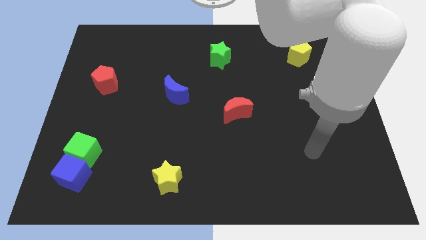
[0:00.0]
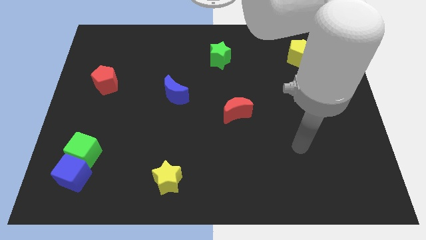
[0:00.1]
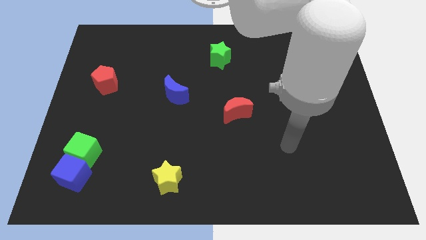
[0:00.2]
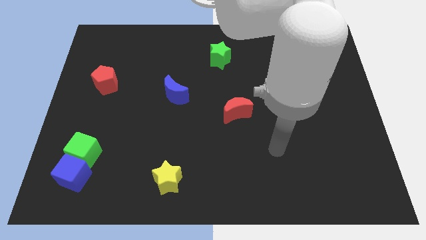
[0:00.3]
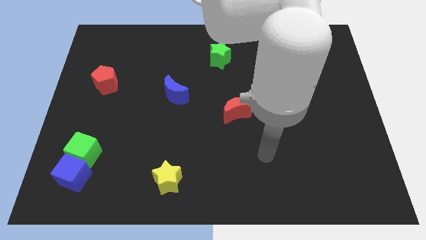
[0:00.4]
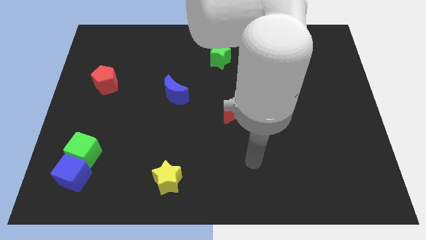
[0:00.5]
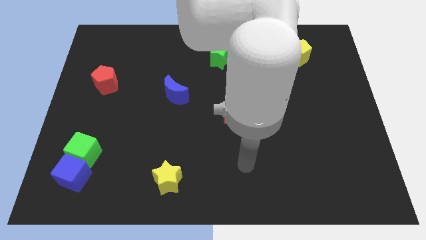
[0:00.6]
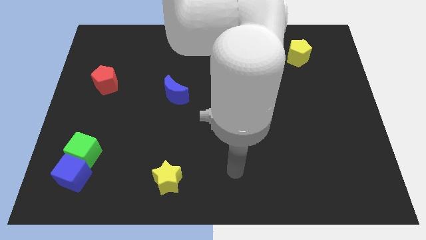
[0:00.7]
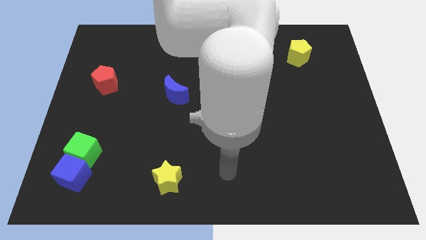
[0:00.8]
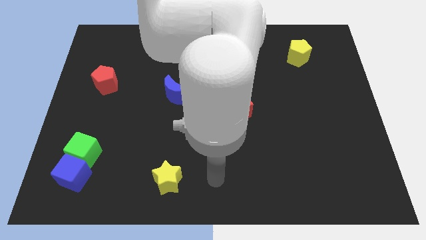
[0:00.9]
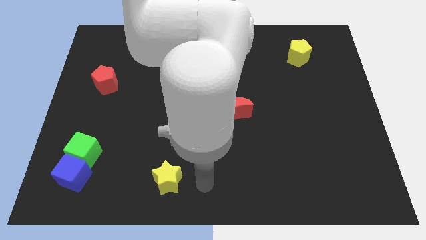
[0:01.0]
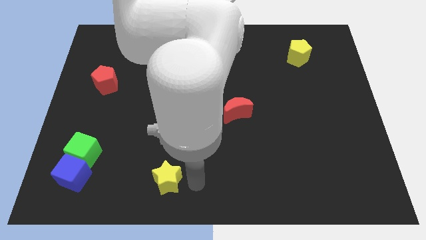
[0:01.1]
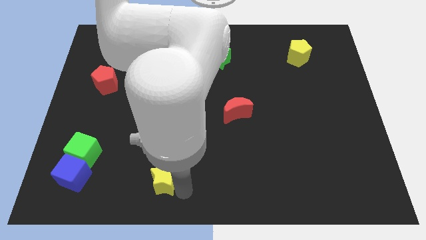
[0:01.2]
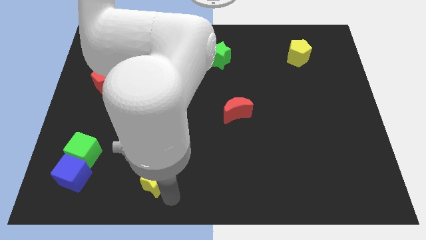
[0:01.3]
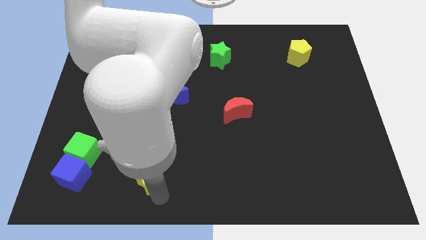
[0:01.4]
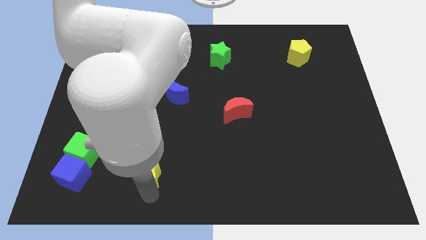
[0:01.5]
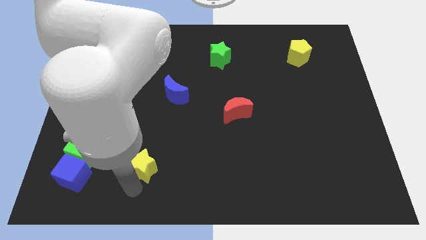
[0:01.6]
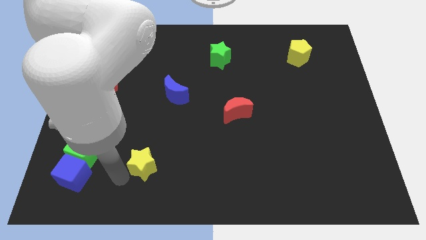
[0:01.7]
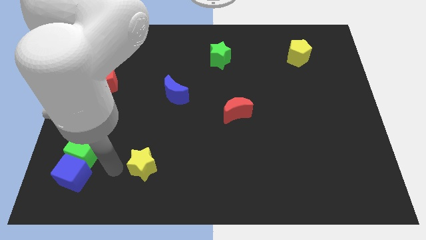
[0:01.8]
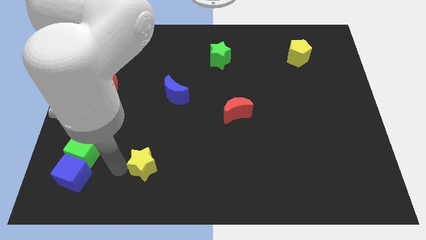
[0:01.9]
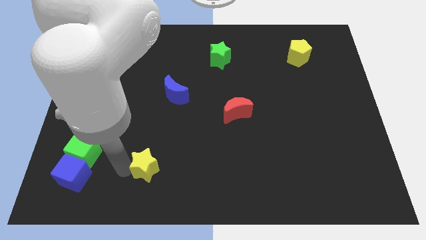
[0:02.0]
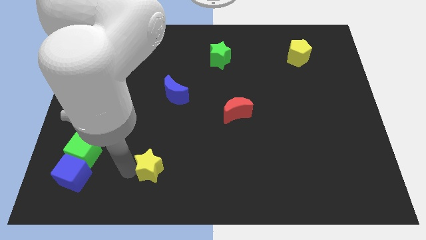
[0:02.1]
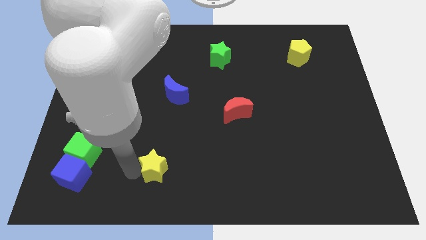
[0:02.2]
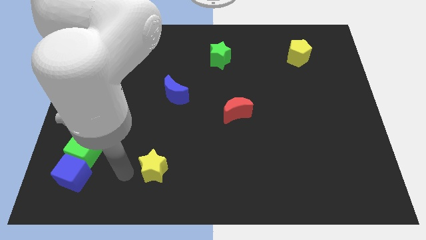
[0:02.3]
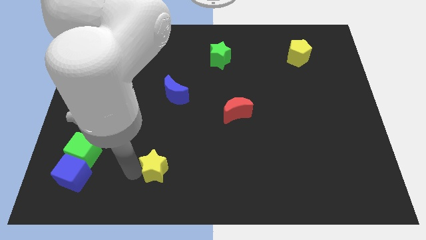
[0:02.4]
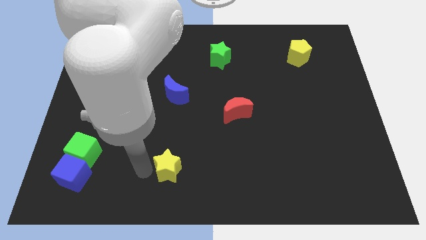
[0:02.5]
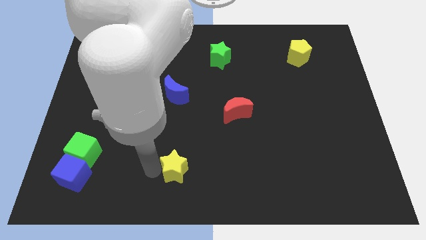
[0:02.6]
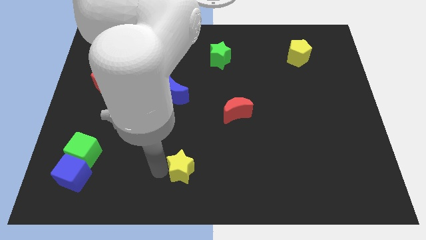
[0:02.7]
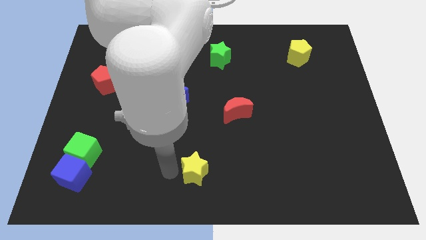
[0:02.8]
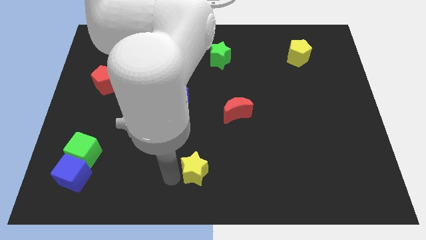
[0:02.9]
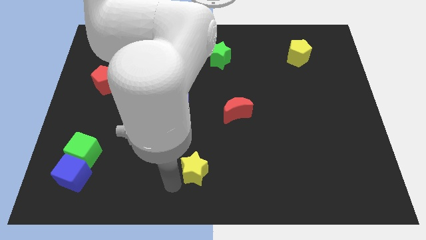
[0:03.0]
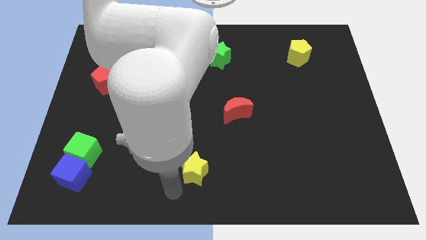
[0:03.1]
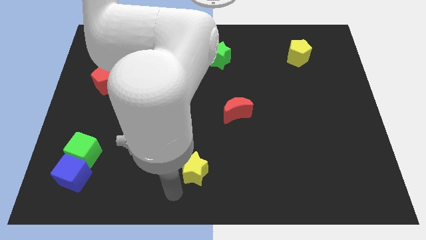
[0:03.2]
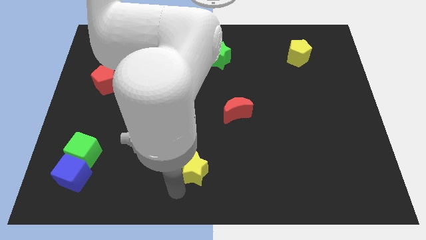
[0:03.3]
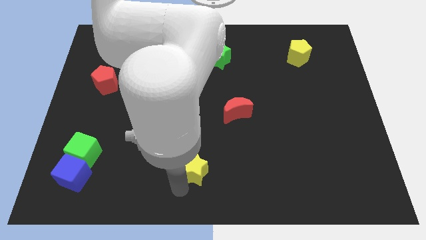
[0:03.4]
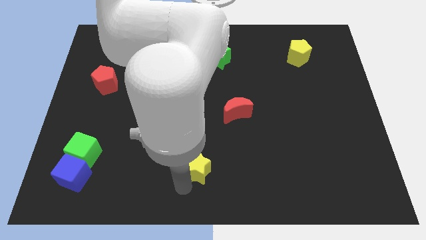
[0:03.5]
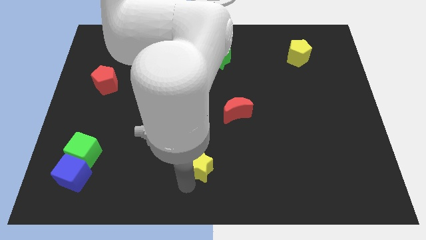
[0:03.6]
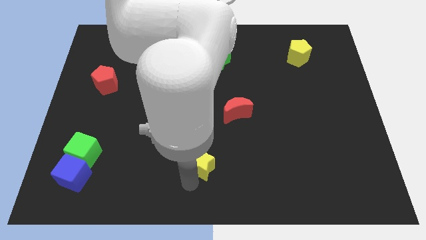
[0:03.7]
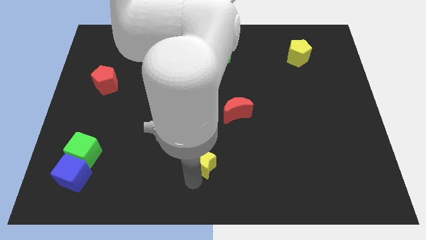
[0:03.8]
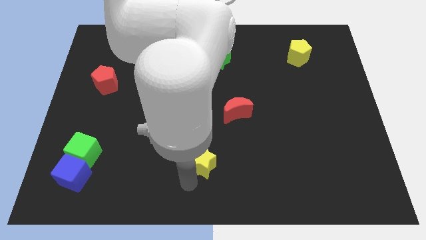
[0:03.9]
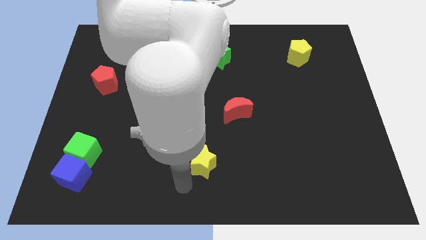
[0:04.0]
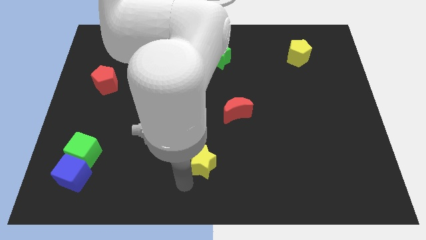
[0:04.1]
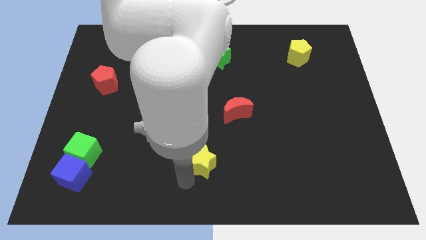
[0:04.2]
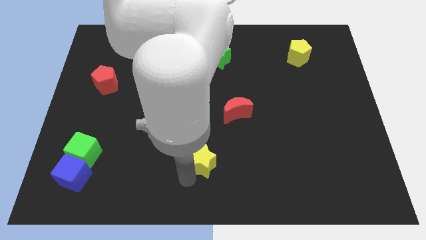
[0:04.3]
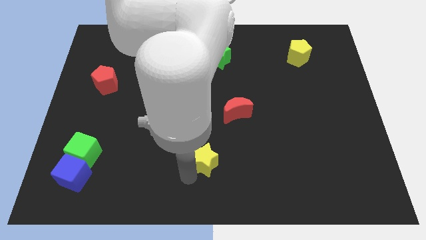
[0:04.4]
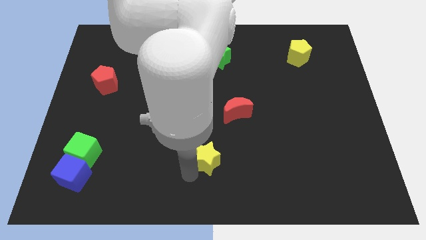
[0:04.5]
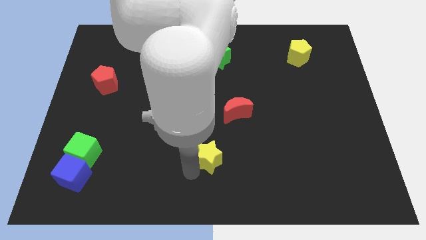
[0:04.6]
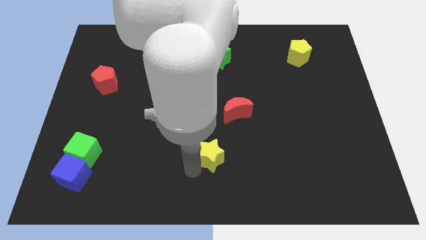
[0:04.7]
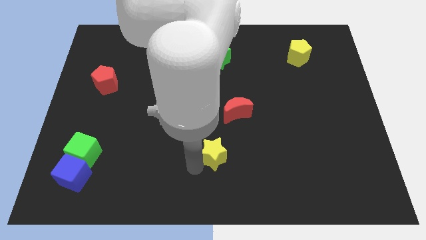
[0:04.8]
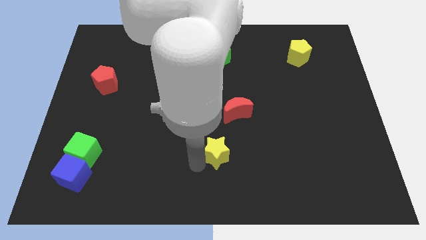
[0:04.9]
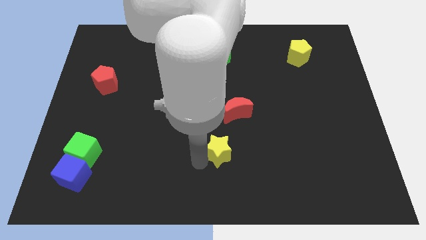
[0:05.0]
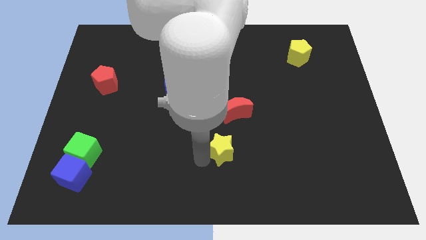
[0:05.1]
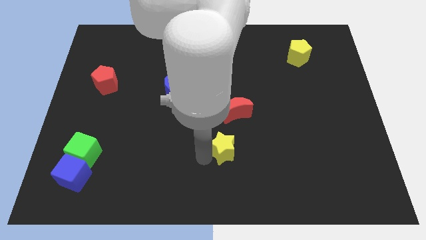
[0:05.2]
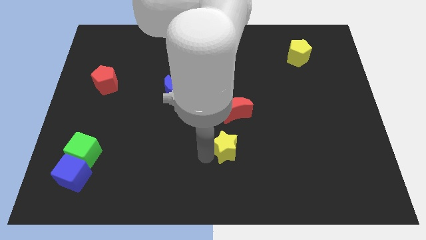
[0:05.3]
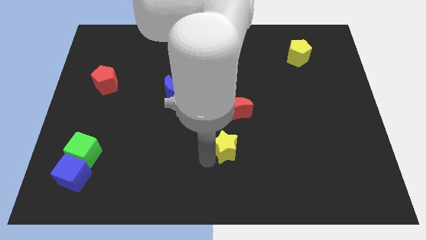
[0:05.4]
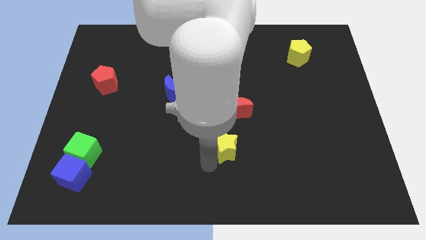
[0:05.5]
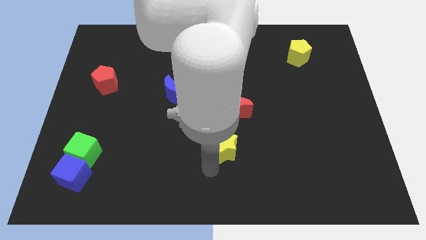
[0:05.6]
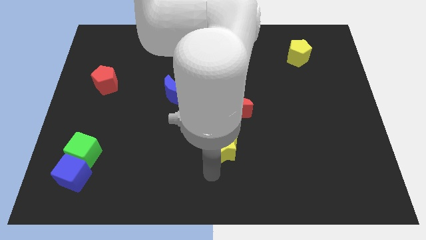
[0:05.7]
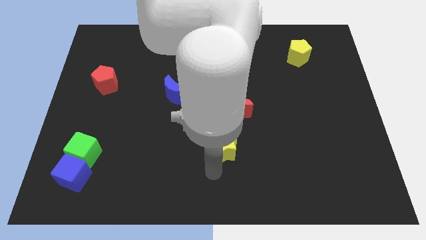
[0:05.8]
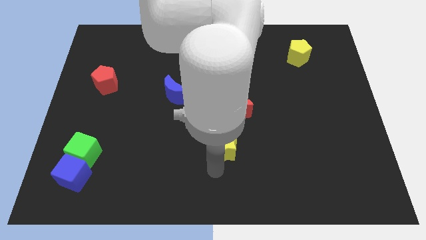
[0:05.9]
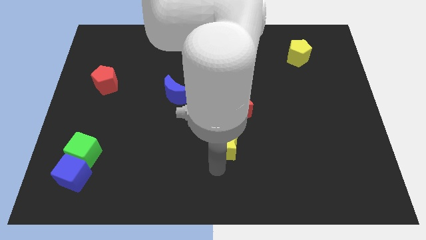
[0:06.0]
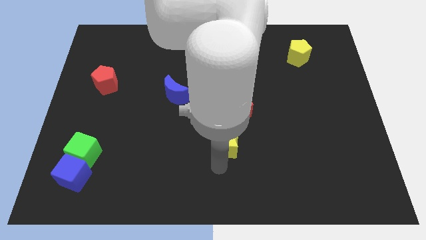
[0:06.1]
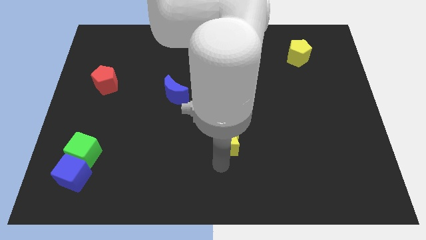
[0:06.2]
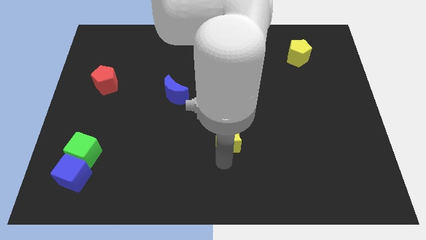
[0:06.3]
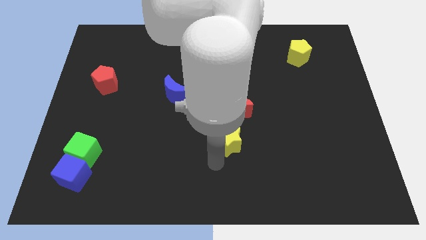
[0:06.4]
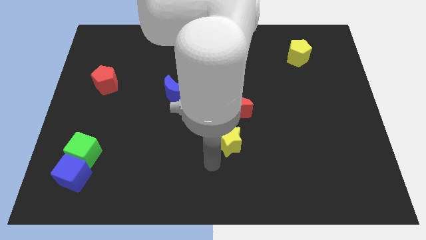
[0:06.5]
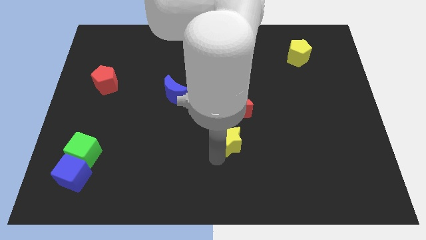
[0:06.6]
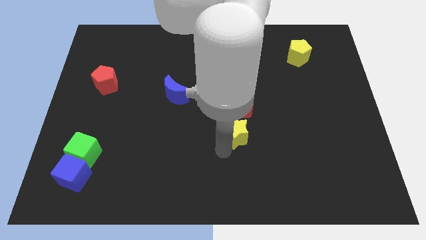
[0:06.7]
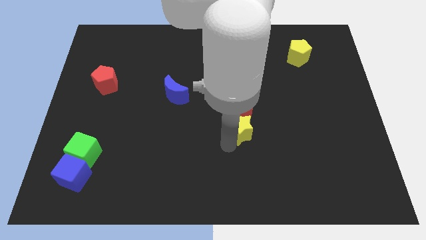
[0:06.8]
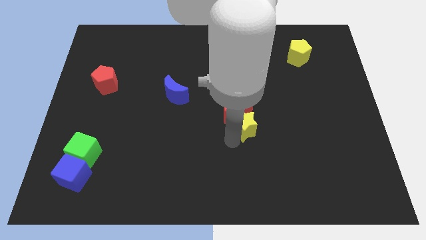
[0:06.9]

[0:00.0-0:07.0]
move the yellow star up and right

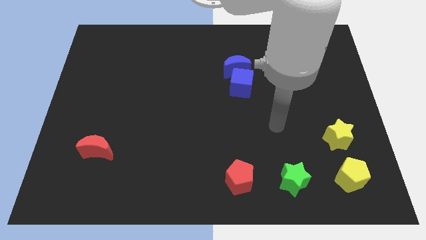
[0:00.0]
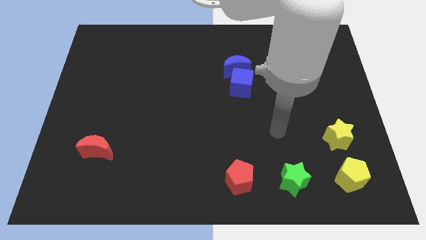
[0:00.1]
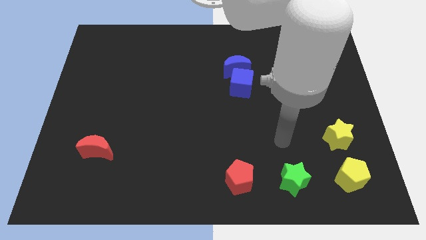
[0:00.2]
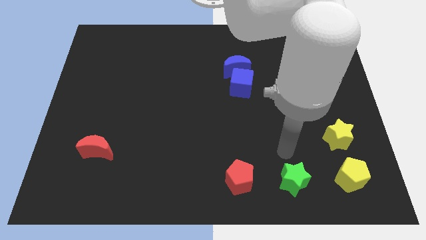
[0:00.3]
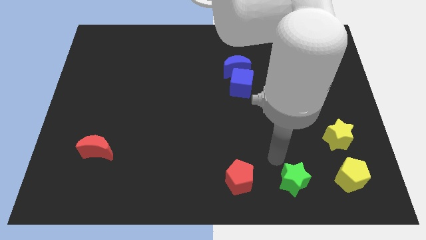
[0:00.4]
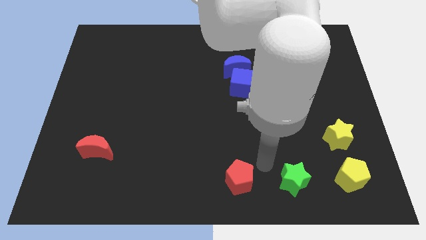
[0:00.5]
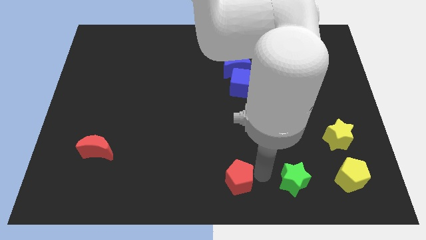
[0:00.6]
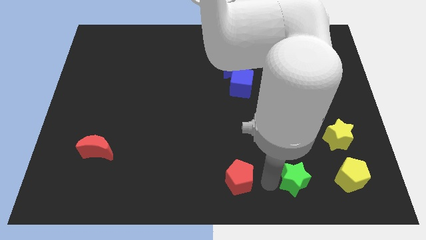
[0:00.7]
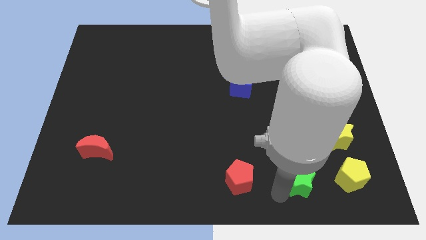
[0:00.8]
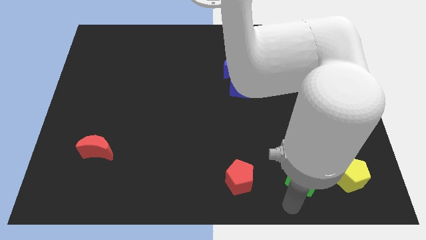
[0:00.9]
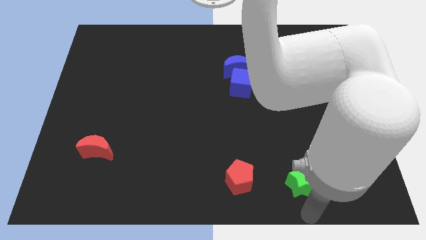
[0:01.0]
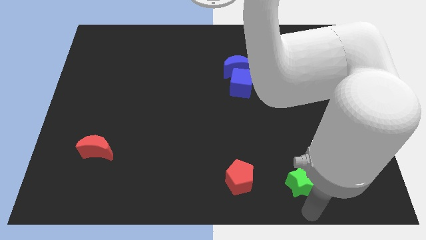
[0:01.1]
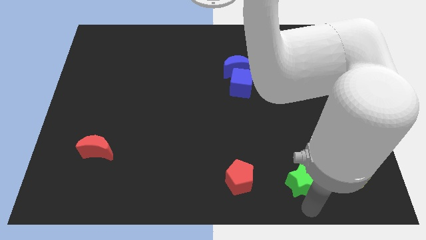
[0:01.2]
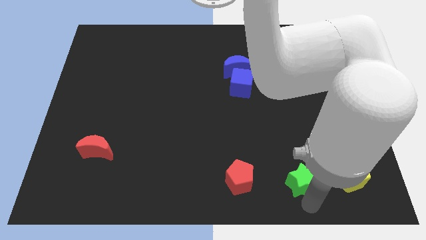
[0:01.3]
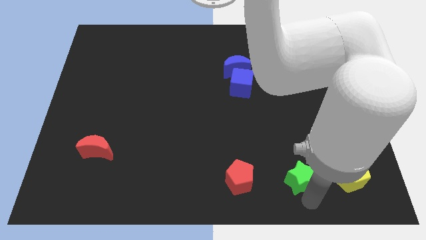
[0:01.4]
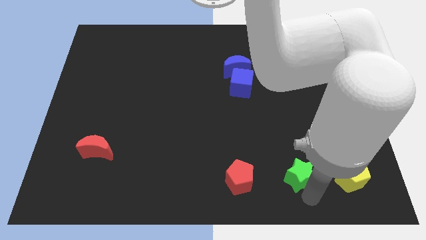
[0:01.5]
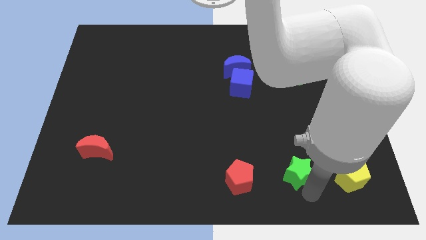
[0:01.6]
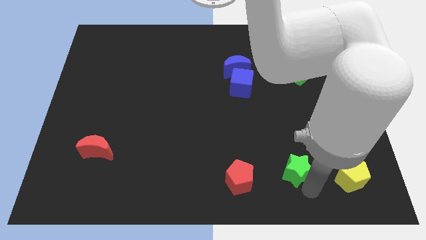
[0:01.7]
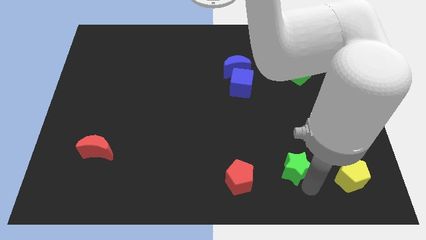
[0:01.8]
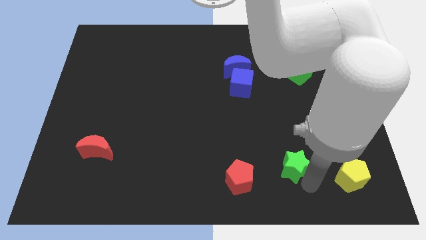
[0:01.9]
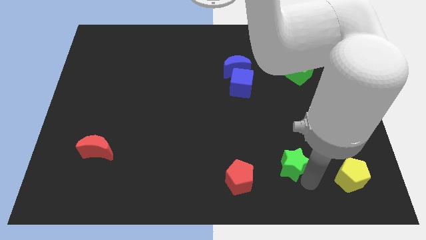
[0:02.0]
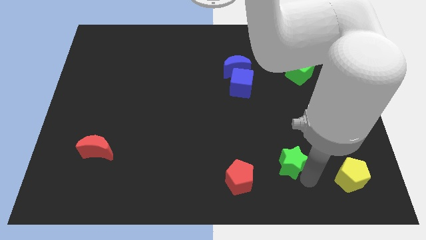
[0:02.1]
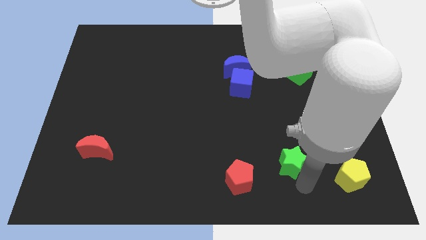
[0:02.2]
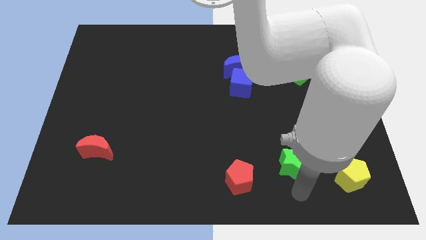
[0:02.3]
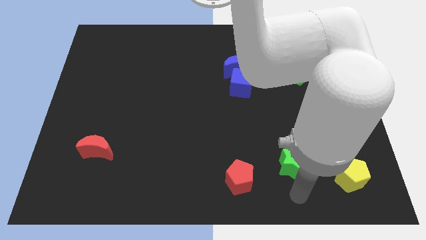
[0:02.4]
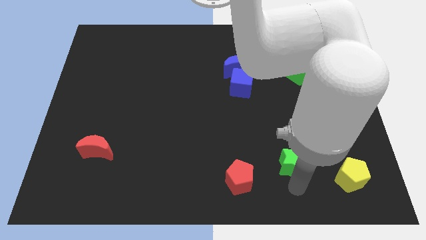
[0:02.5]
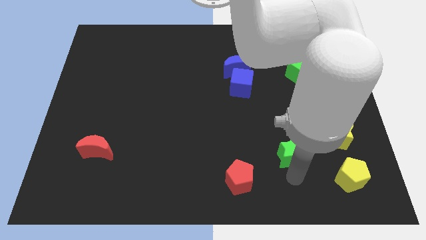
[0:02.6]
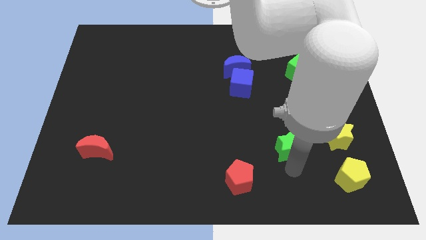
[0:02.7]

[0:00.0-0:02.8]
push the green star somewhat up
